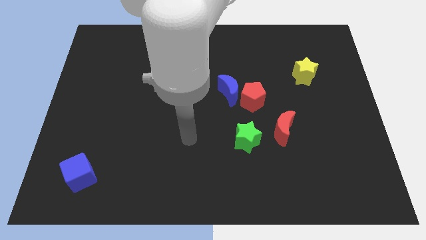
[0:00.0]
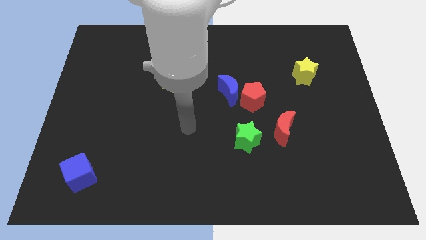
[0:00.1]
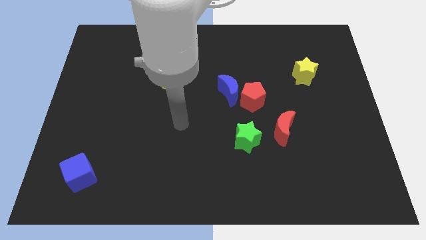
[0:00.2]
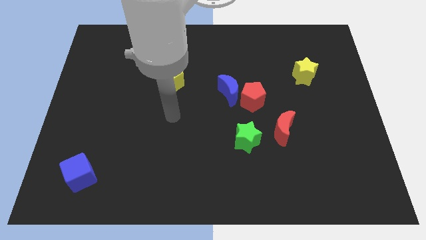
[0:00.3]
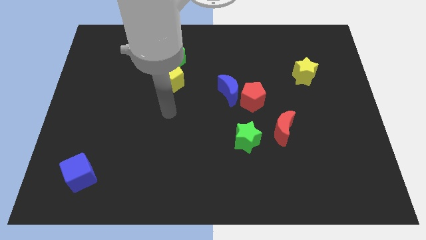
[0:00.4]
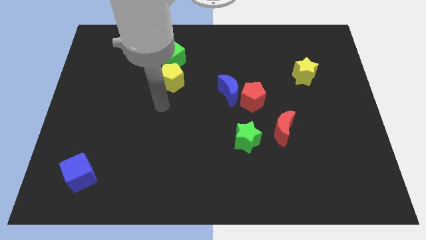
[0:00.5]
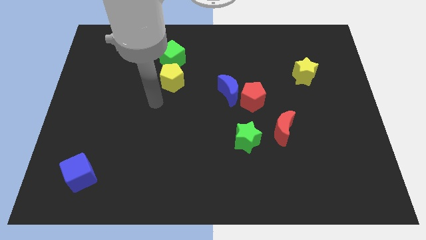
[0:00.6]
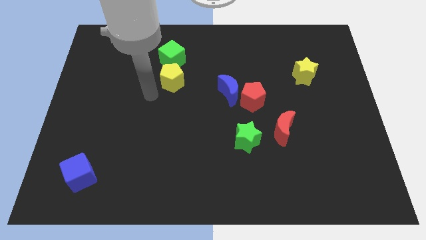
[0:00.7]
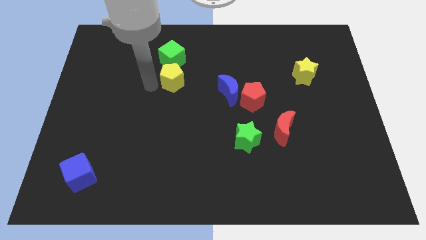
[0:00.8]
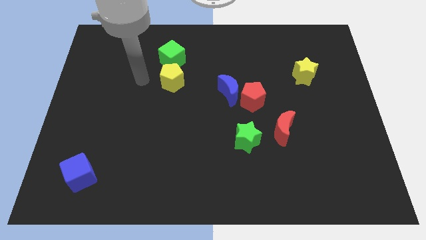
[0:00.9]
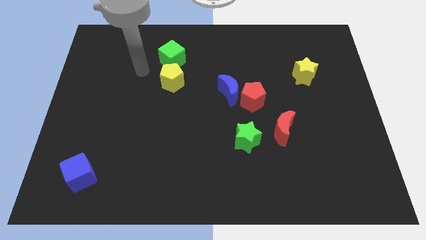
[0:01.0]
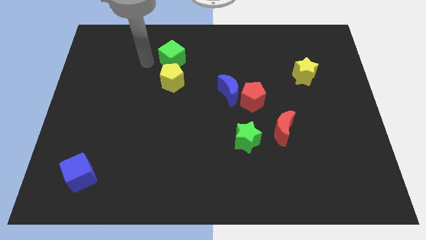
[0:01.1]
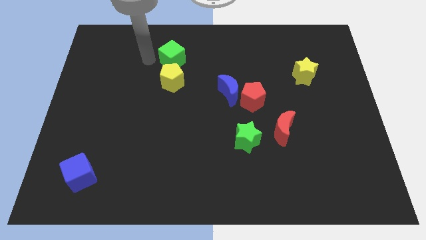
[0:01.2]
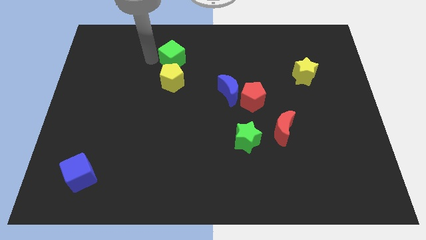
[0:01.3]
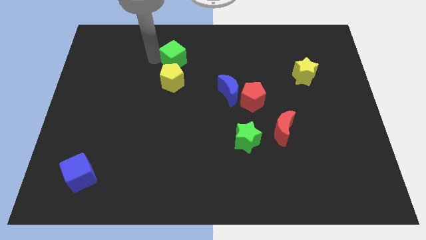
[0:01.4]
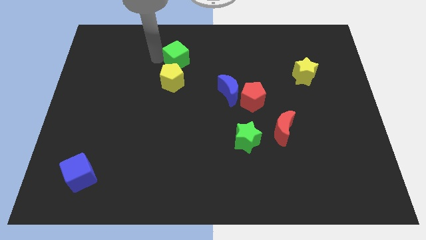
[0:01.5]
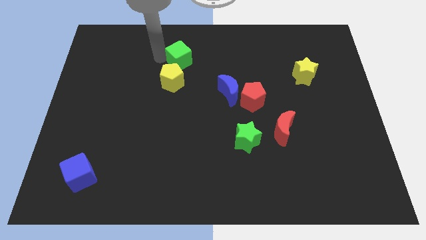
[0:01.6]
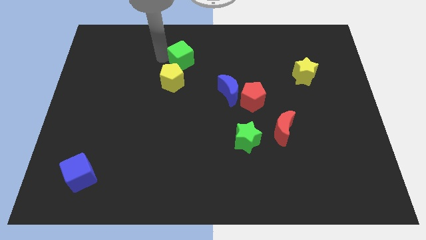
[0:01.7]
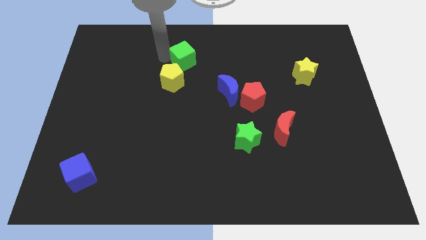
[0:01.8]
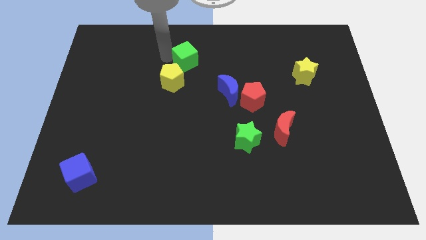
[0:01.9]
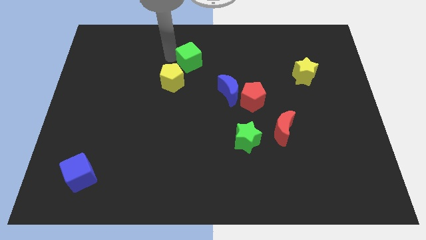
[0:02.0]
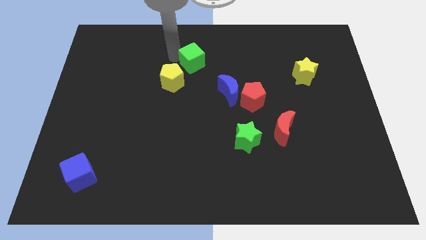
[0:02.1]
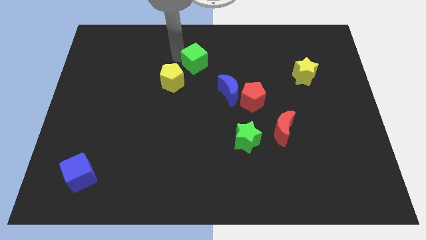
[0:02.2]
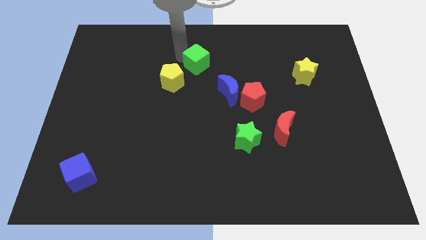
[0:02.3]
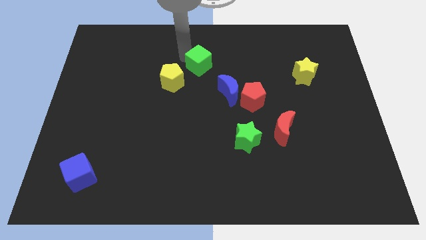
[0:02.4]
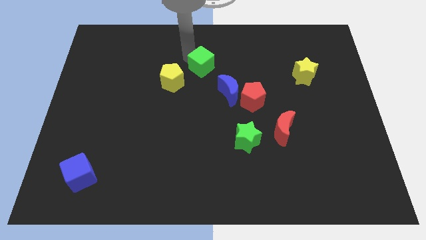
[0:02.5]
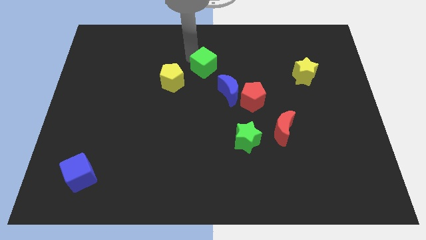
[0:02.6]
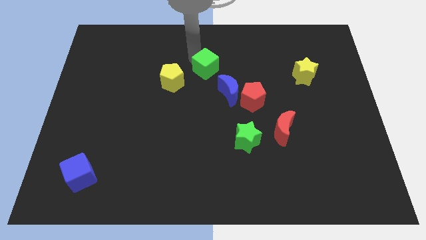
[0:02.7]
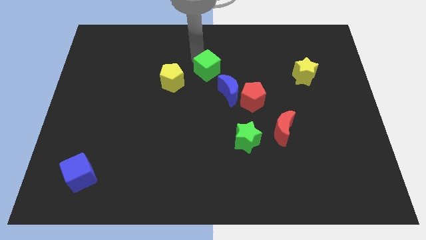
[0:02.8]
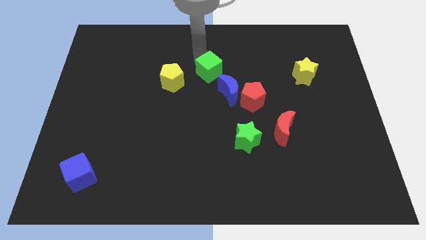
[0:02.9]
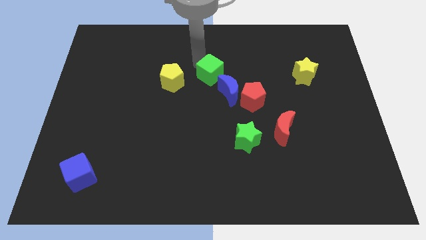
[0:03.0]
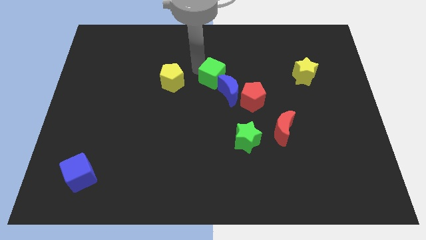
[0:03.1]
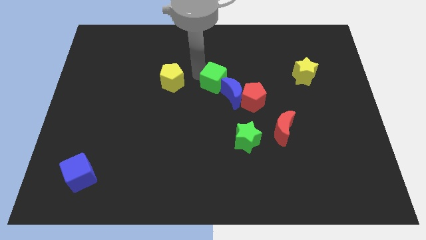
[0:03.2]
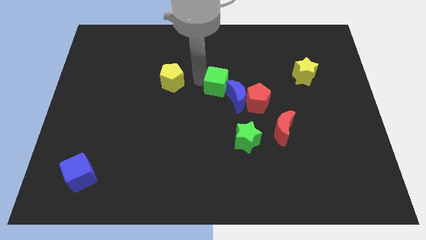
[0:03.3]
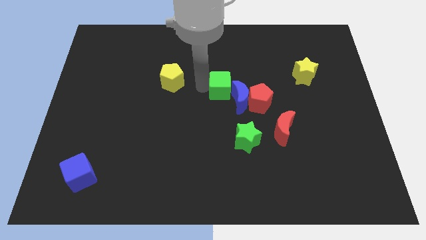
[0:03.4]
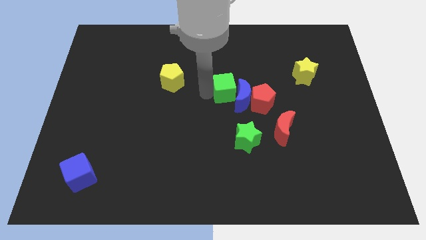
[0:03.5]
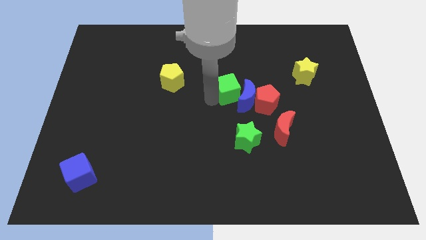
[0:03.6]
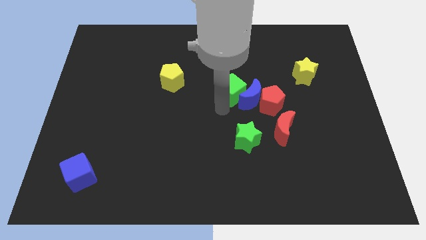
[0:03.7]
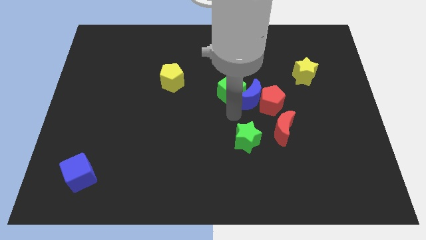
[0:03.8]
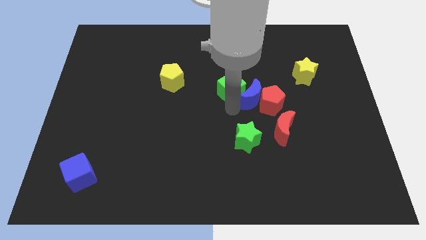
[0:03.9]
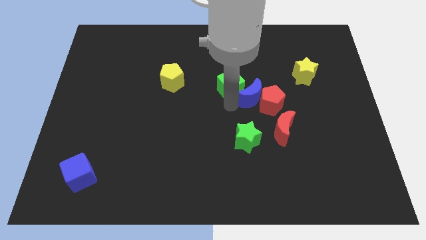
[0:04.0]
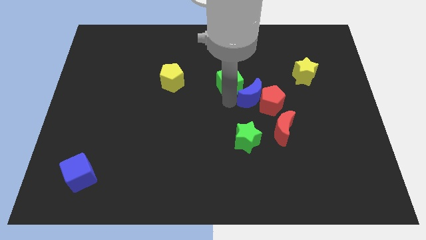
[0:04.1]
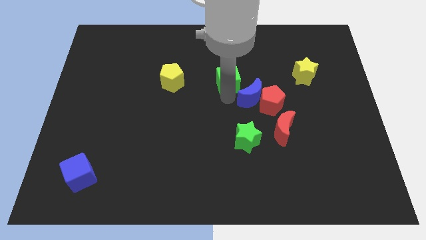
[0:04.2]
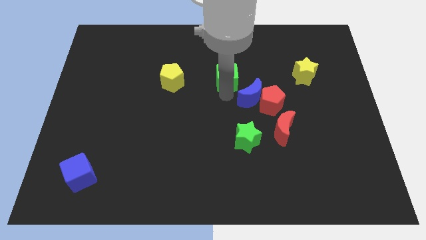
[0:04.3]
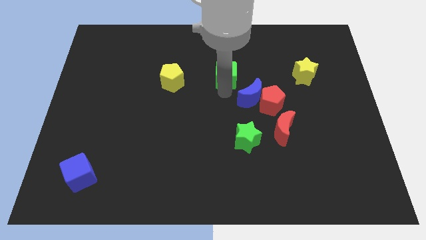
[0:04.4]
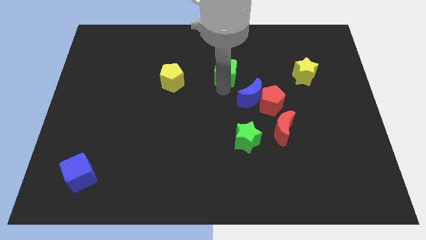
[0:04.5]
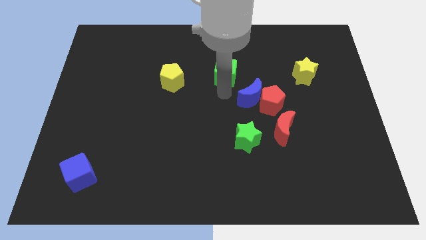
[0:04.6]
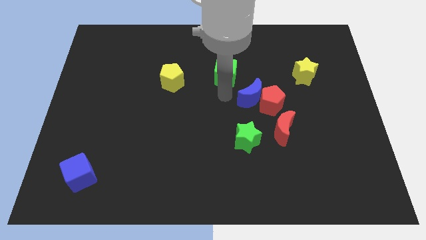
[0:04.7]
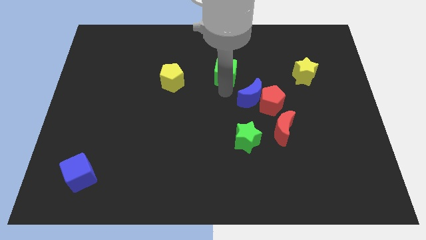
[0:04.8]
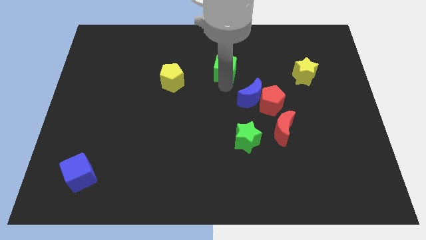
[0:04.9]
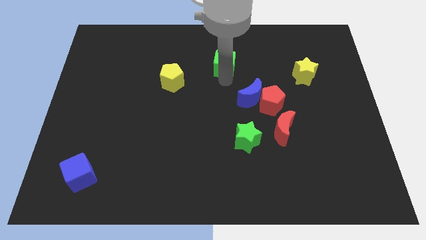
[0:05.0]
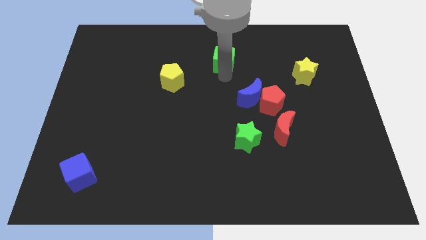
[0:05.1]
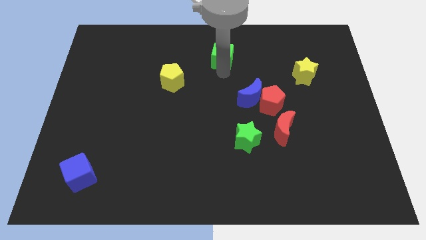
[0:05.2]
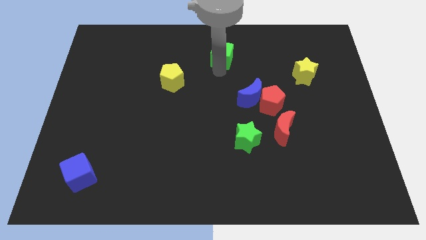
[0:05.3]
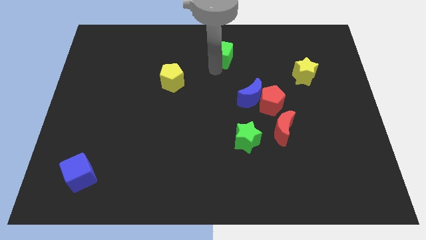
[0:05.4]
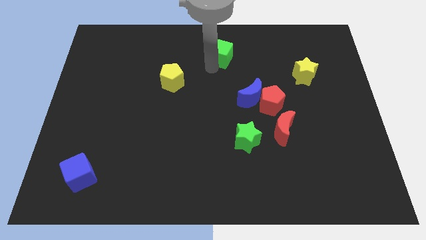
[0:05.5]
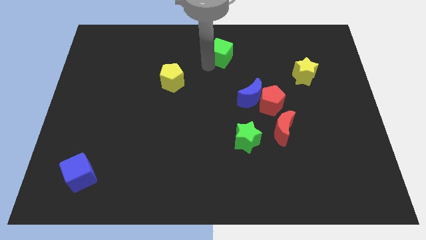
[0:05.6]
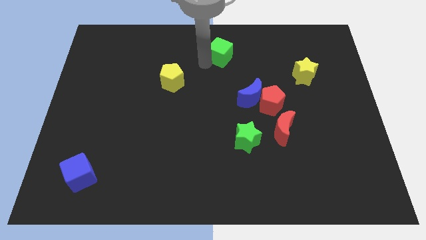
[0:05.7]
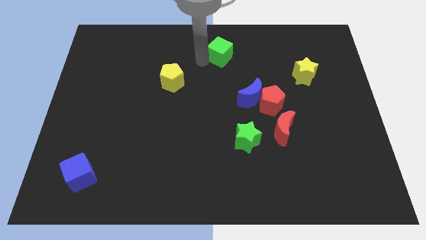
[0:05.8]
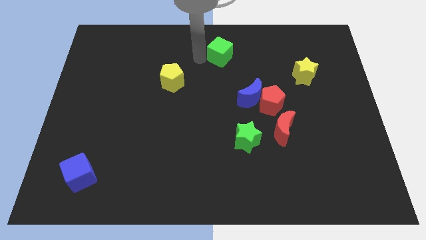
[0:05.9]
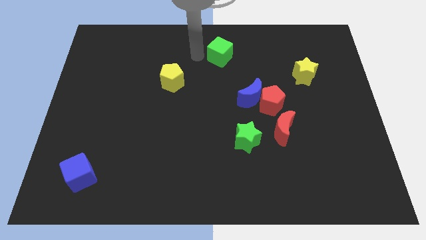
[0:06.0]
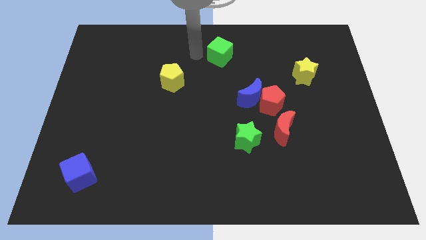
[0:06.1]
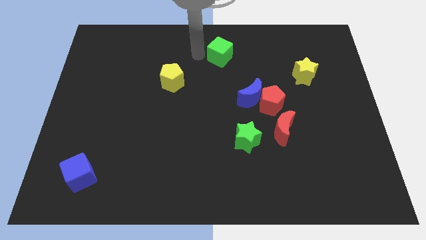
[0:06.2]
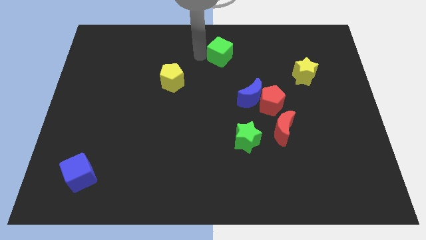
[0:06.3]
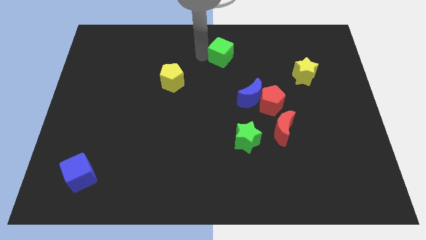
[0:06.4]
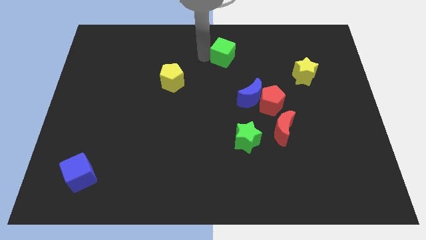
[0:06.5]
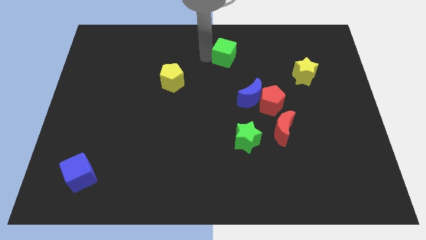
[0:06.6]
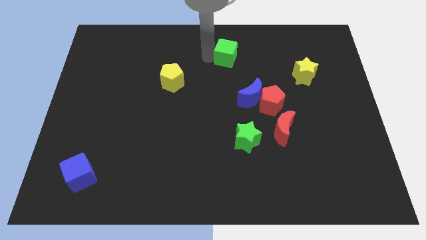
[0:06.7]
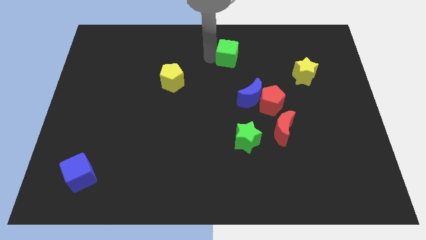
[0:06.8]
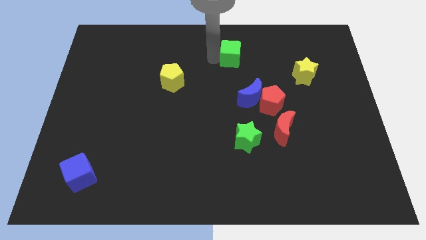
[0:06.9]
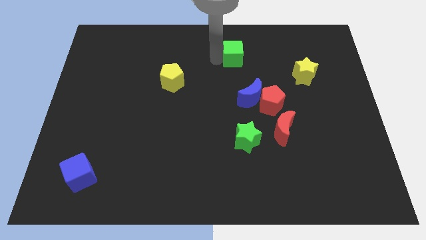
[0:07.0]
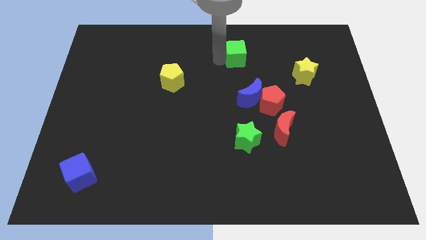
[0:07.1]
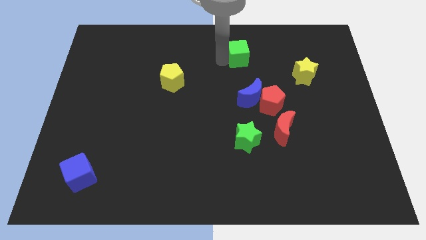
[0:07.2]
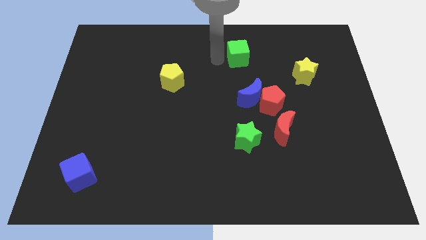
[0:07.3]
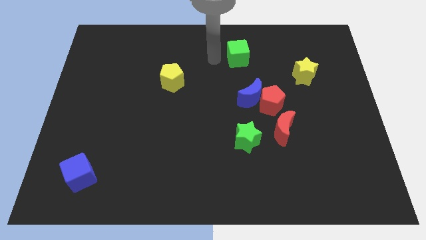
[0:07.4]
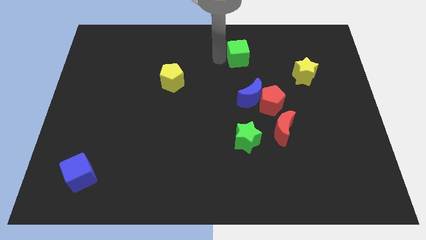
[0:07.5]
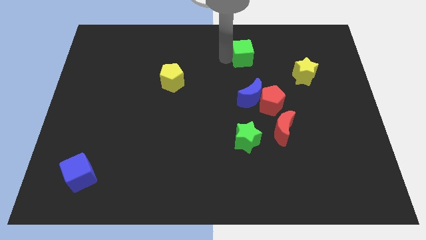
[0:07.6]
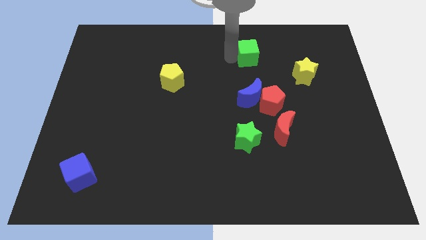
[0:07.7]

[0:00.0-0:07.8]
push the green cube to the right

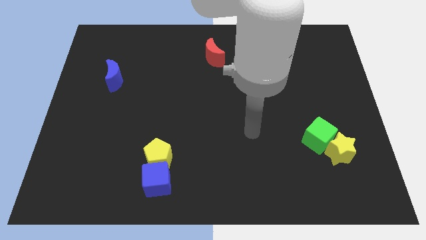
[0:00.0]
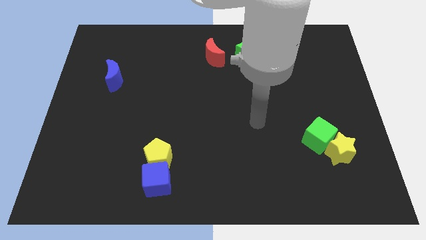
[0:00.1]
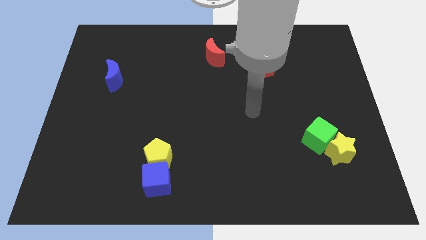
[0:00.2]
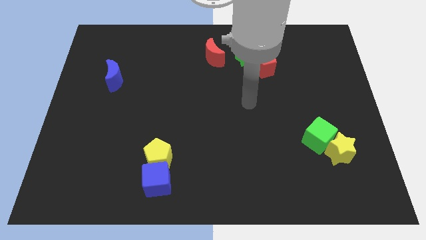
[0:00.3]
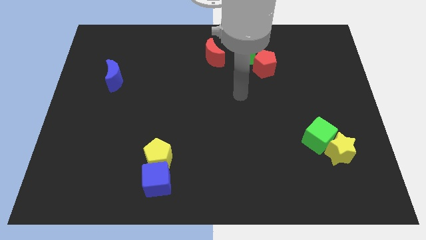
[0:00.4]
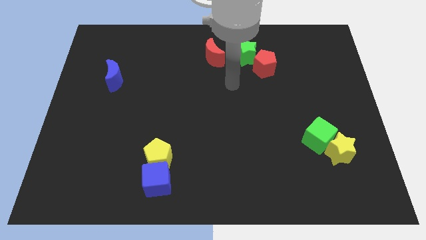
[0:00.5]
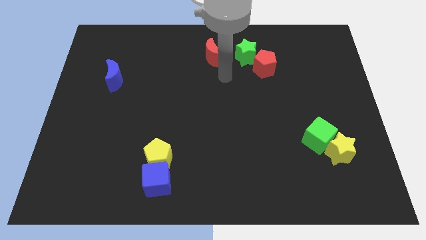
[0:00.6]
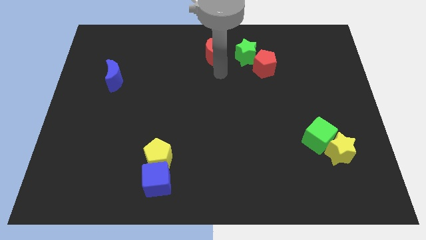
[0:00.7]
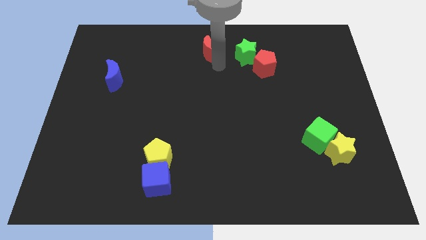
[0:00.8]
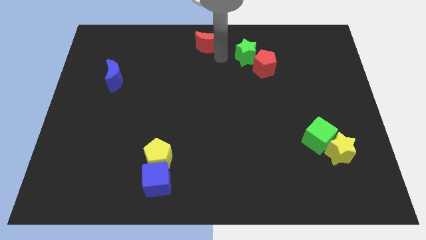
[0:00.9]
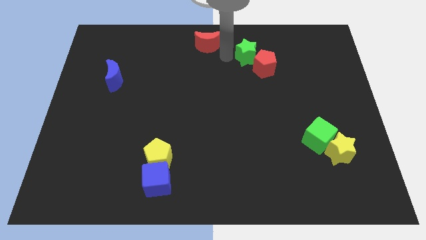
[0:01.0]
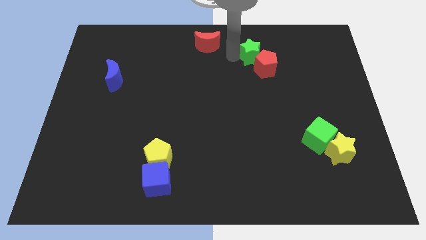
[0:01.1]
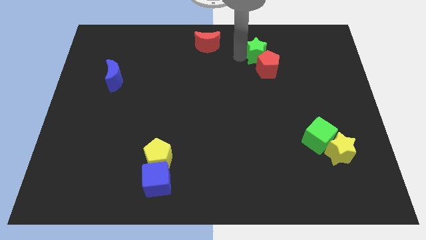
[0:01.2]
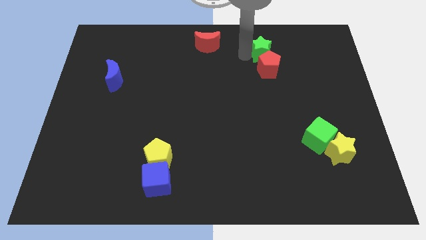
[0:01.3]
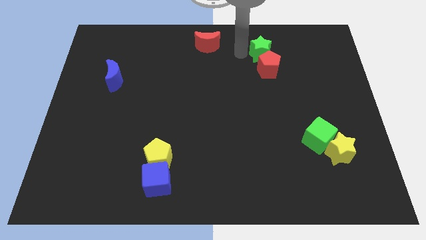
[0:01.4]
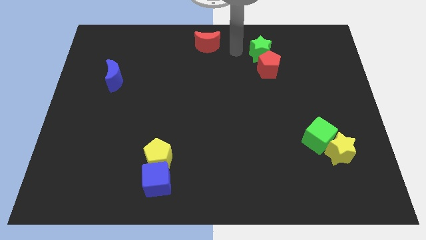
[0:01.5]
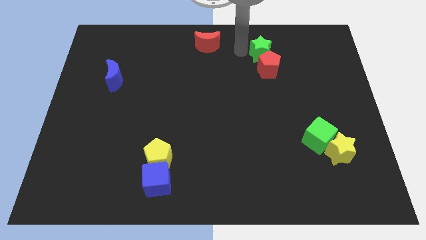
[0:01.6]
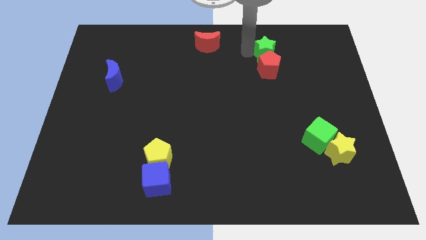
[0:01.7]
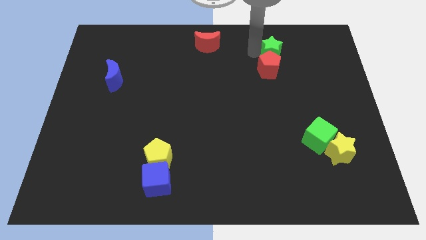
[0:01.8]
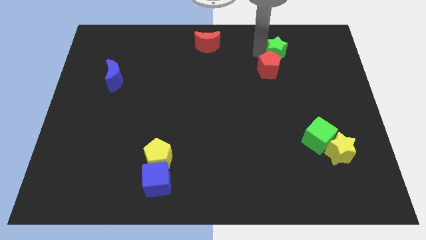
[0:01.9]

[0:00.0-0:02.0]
slightly slide the green star right
